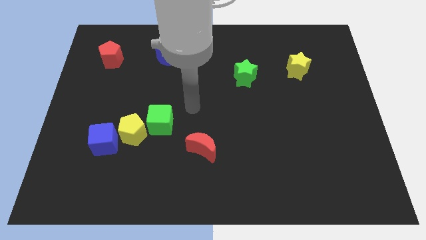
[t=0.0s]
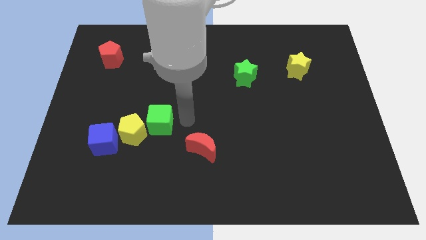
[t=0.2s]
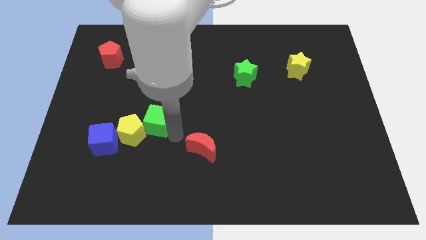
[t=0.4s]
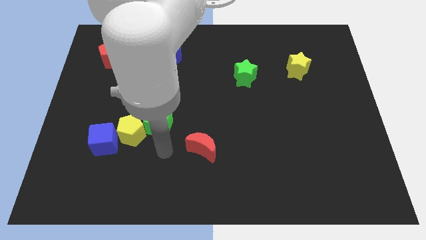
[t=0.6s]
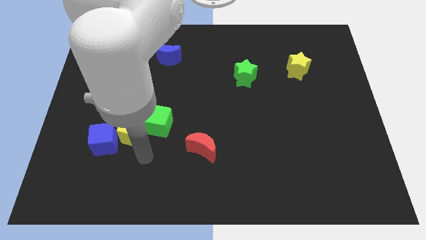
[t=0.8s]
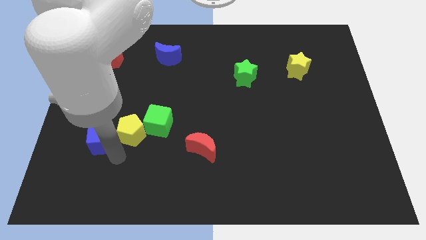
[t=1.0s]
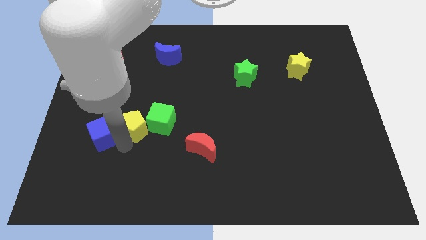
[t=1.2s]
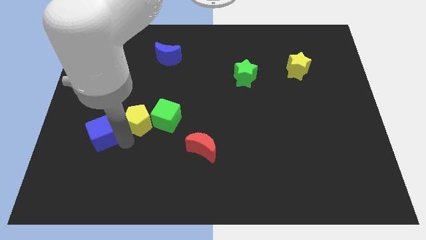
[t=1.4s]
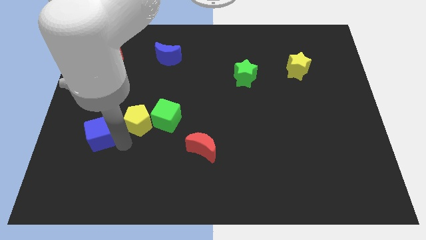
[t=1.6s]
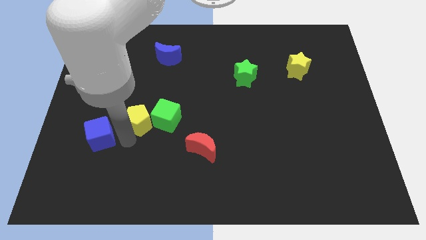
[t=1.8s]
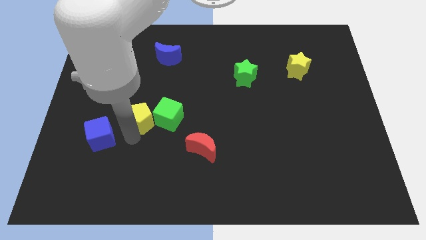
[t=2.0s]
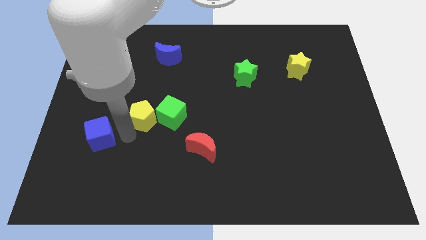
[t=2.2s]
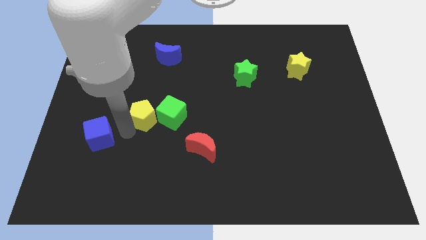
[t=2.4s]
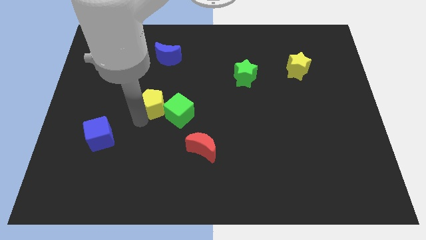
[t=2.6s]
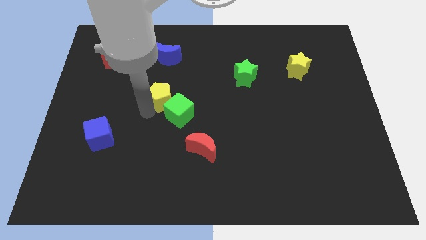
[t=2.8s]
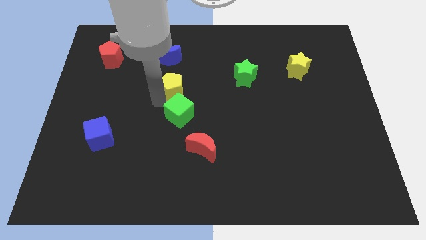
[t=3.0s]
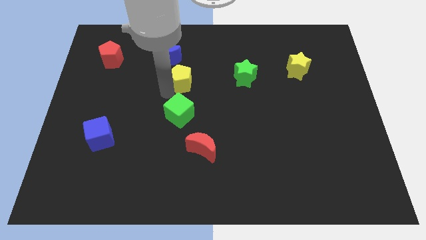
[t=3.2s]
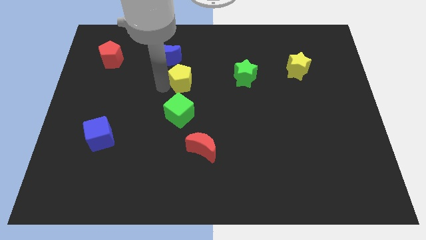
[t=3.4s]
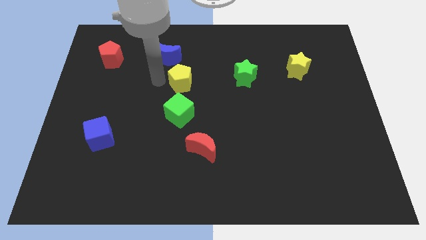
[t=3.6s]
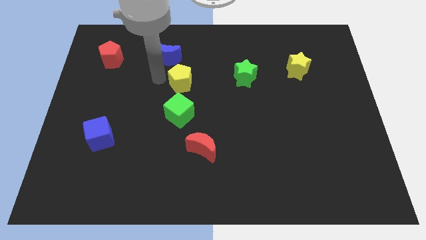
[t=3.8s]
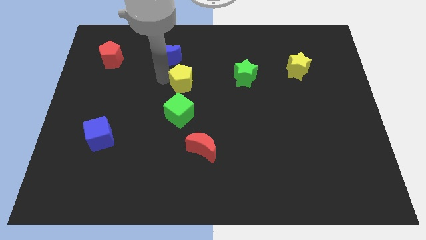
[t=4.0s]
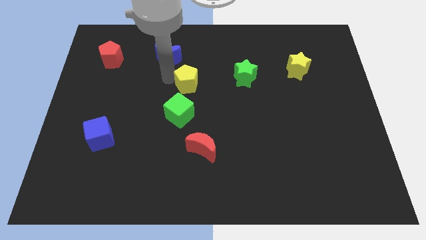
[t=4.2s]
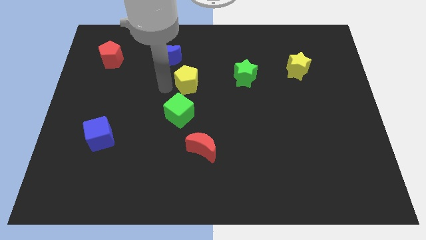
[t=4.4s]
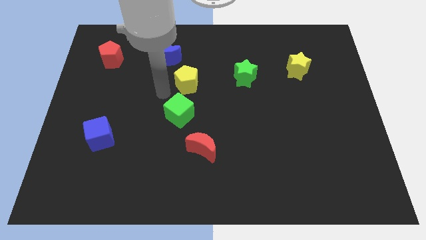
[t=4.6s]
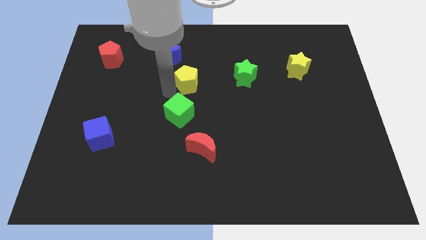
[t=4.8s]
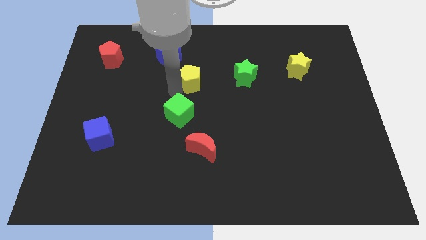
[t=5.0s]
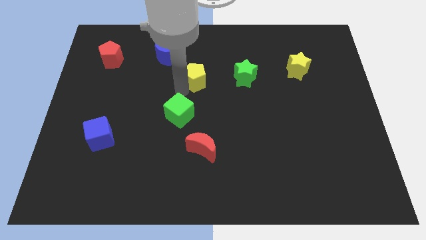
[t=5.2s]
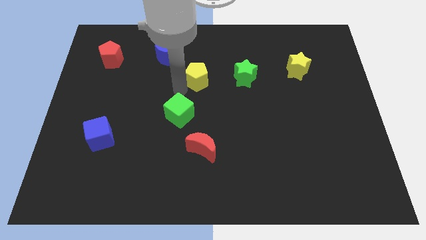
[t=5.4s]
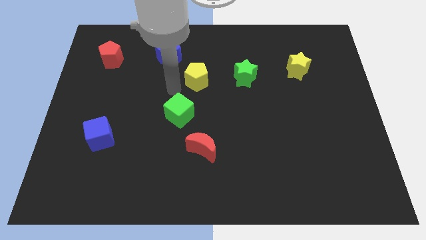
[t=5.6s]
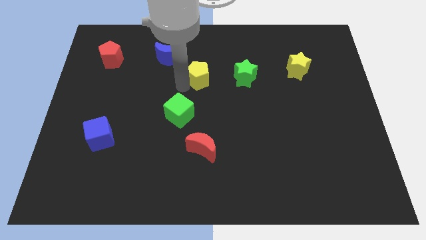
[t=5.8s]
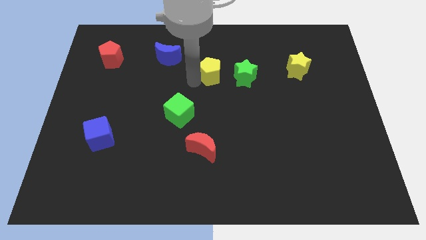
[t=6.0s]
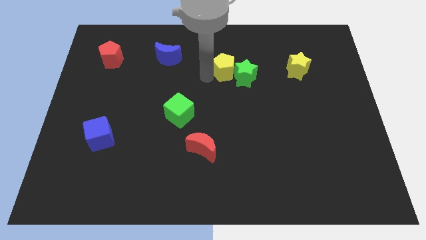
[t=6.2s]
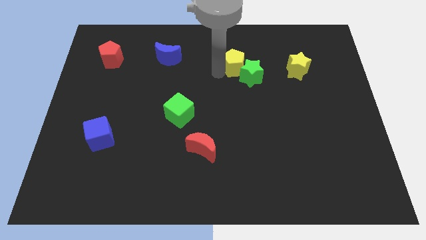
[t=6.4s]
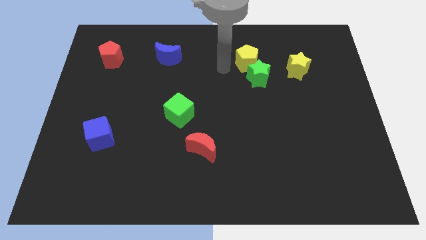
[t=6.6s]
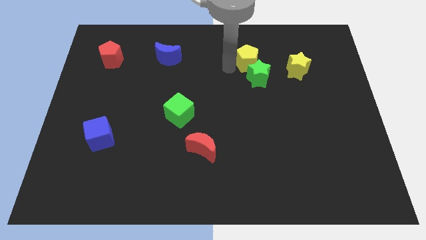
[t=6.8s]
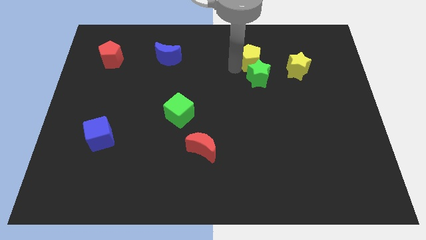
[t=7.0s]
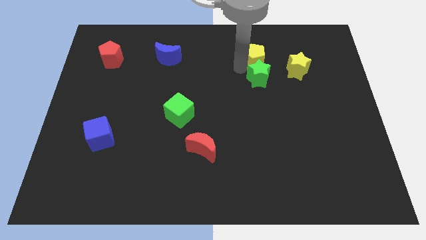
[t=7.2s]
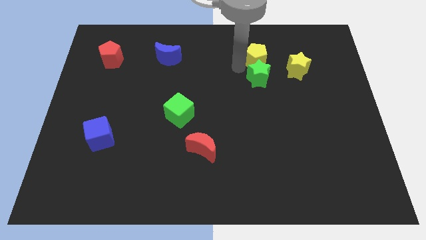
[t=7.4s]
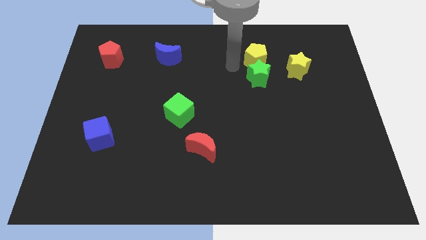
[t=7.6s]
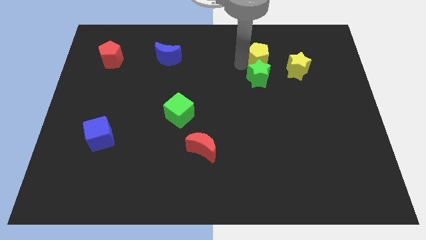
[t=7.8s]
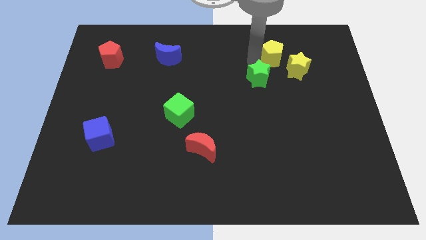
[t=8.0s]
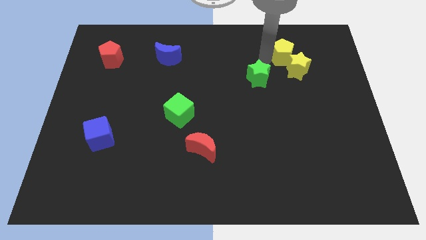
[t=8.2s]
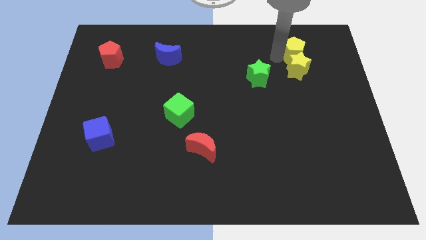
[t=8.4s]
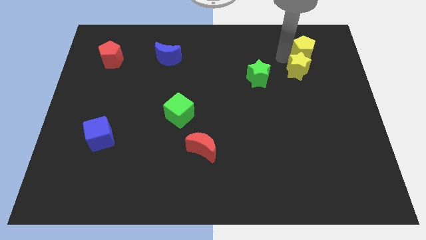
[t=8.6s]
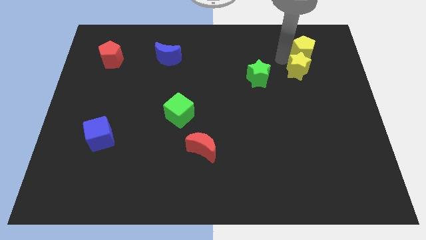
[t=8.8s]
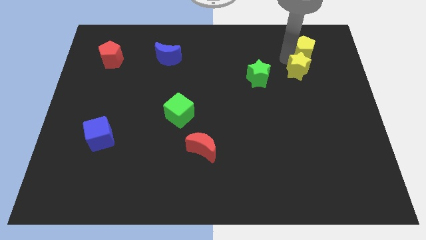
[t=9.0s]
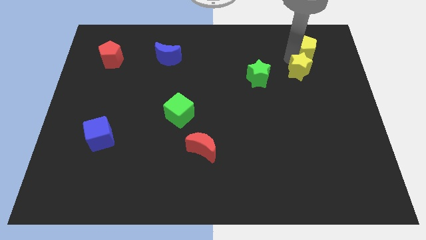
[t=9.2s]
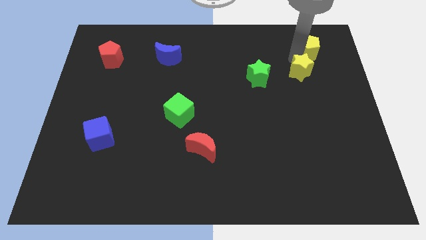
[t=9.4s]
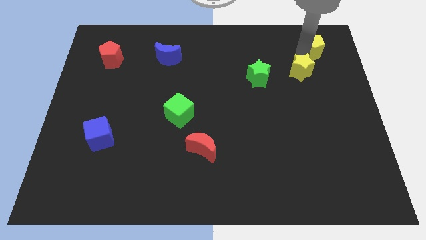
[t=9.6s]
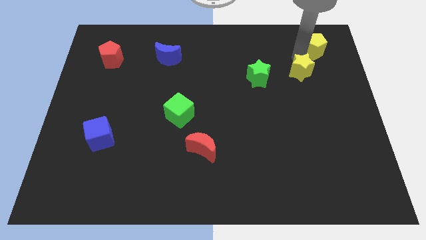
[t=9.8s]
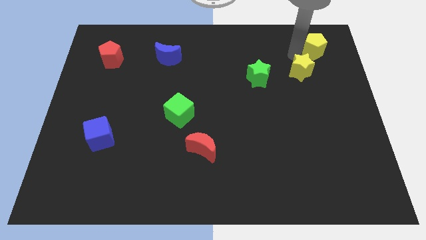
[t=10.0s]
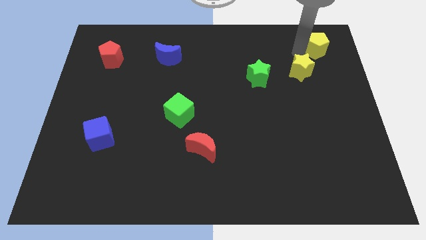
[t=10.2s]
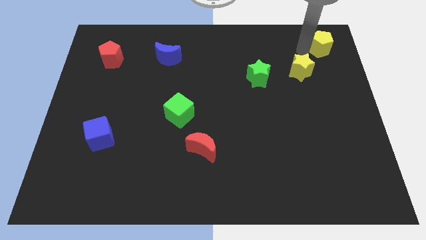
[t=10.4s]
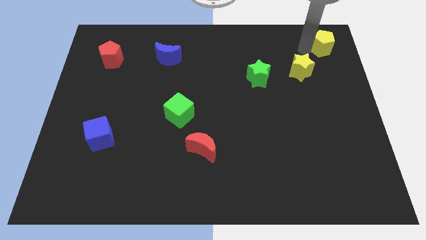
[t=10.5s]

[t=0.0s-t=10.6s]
put the yellow pentagon to the upper right corner

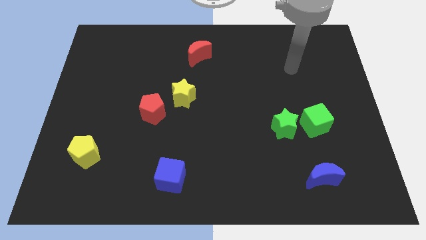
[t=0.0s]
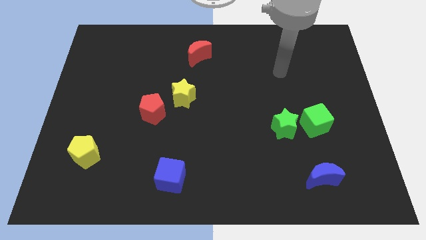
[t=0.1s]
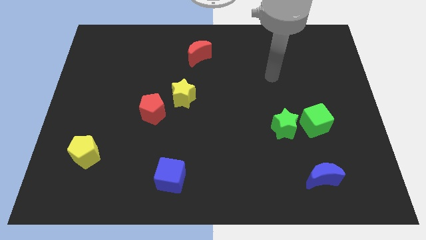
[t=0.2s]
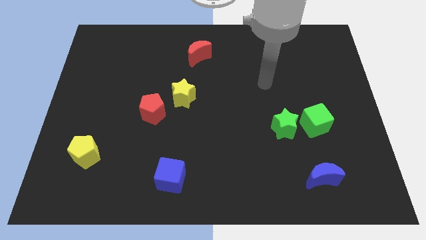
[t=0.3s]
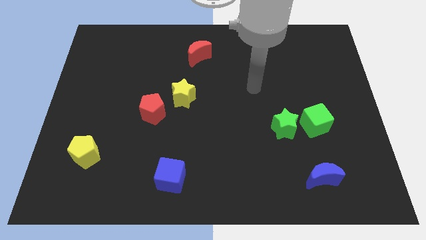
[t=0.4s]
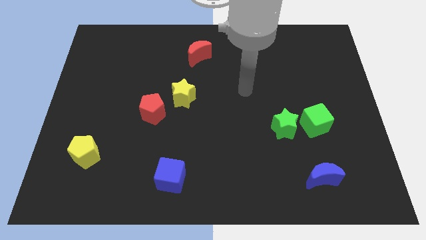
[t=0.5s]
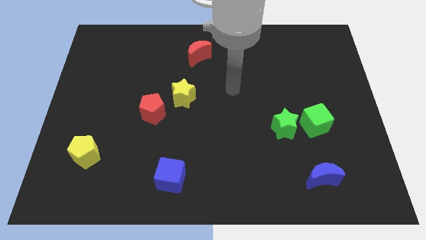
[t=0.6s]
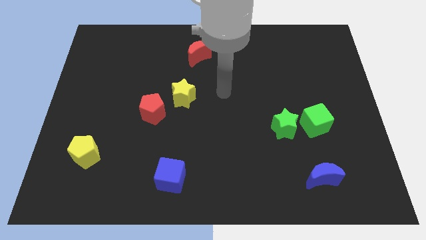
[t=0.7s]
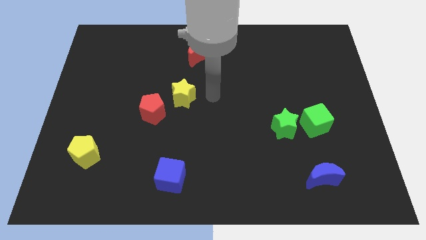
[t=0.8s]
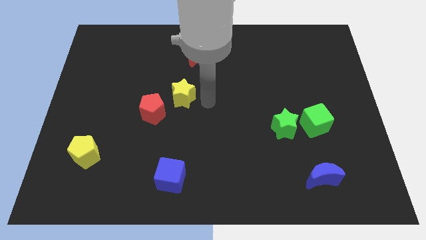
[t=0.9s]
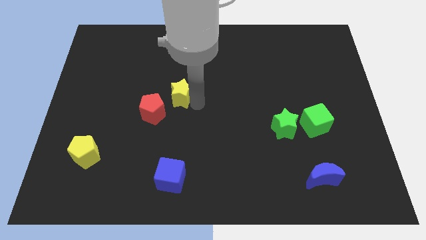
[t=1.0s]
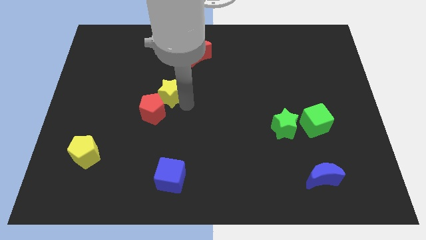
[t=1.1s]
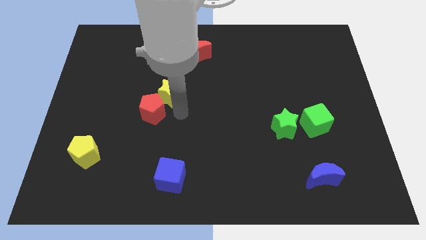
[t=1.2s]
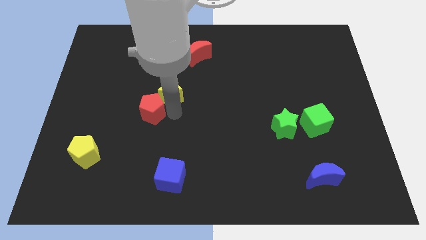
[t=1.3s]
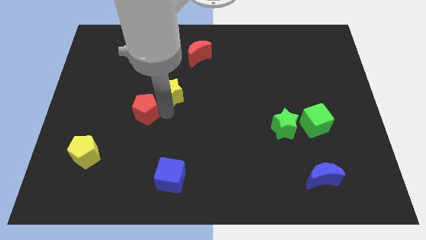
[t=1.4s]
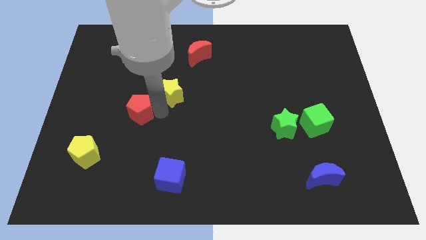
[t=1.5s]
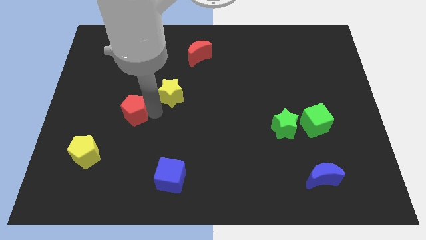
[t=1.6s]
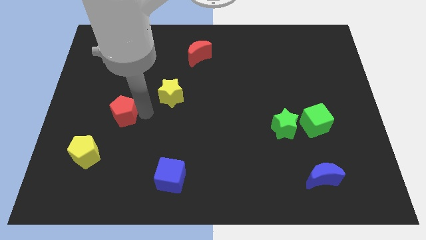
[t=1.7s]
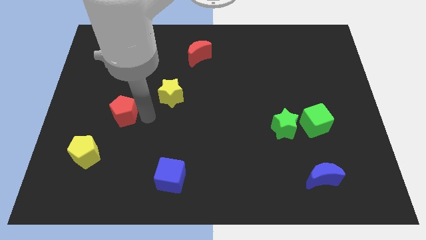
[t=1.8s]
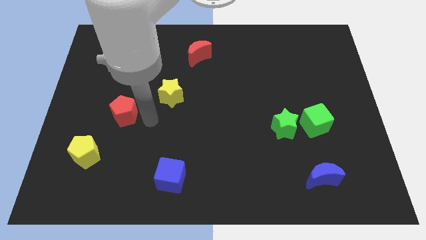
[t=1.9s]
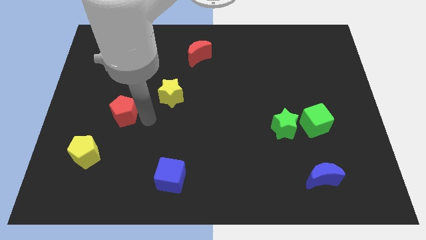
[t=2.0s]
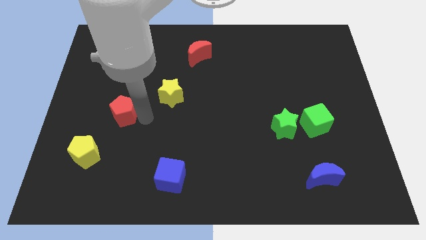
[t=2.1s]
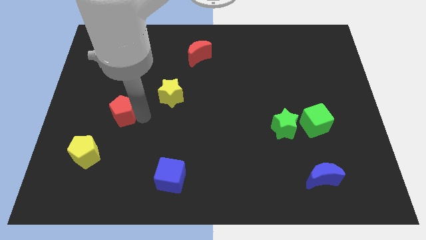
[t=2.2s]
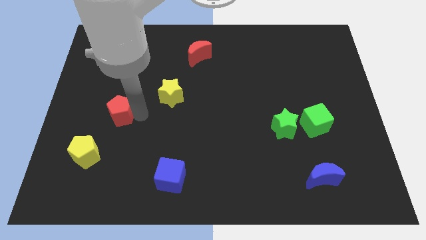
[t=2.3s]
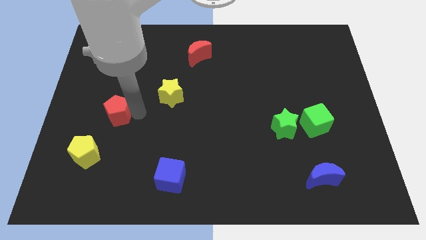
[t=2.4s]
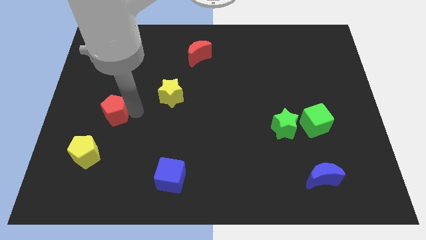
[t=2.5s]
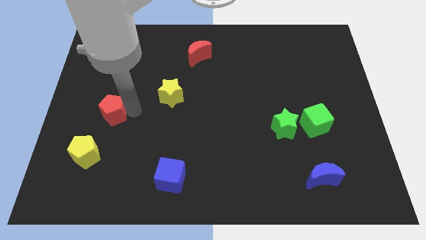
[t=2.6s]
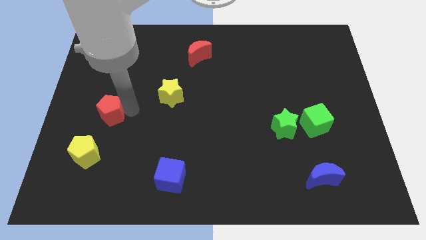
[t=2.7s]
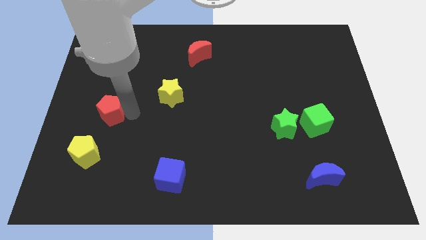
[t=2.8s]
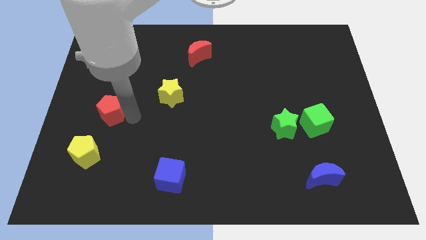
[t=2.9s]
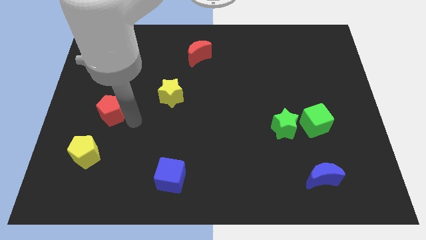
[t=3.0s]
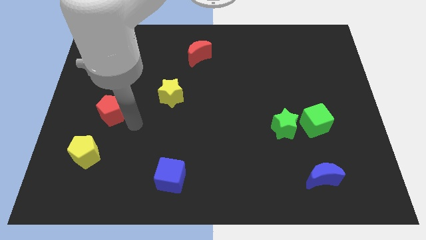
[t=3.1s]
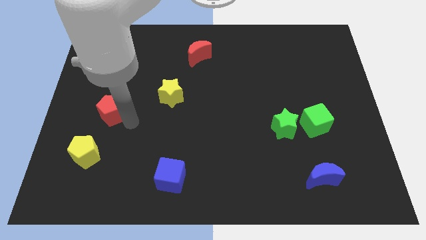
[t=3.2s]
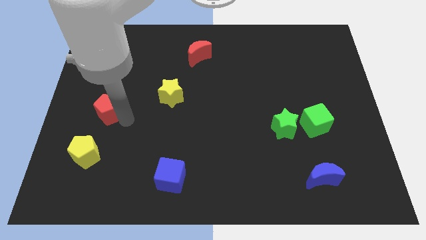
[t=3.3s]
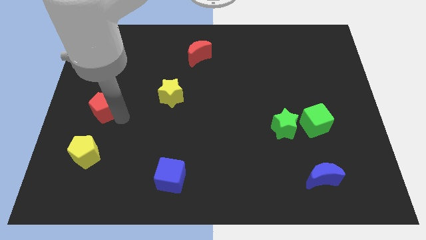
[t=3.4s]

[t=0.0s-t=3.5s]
push the red pentagon to the center left
